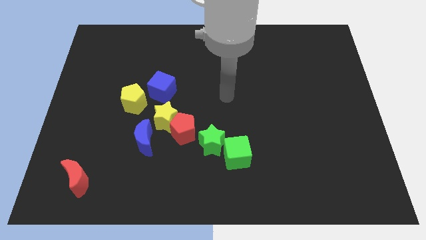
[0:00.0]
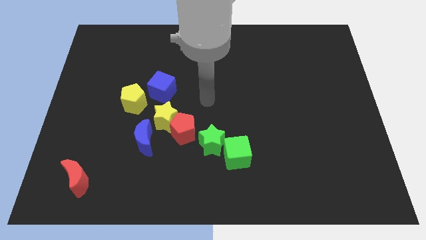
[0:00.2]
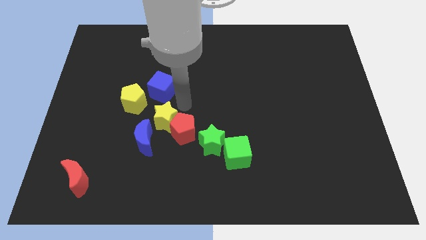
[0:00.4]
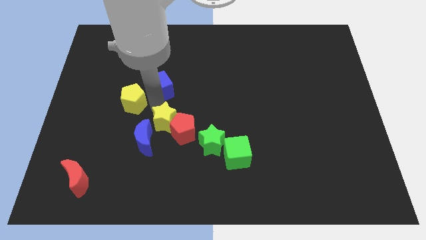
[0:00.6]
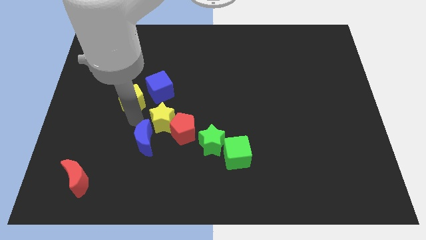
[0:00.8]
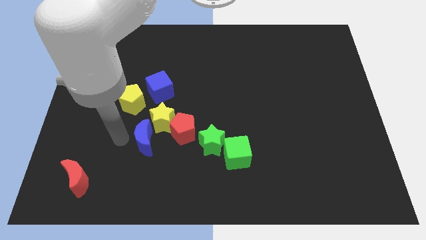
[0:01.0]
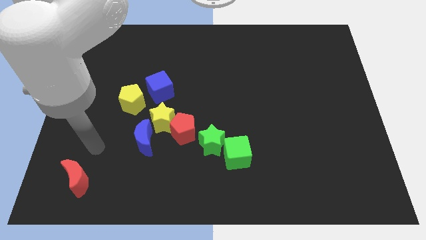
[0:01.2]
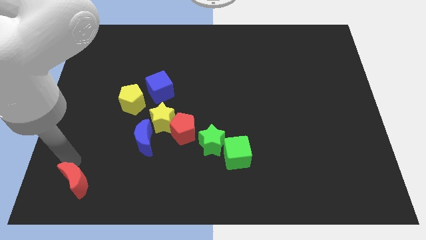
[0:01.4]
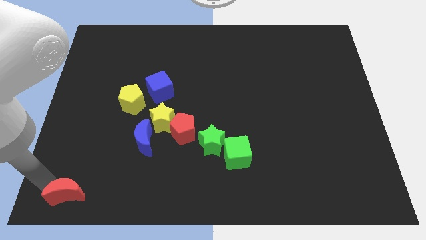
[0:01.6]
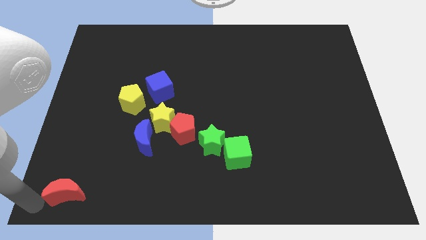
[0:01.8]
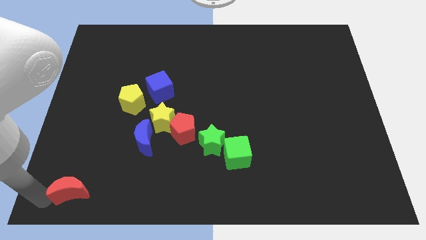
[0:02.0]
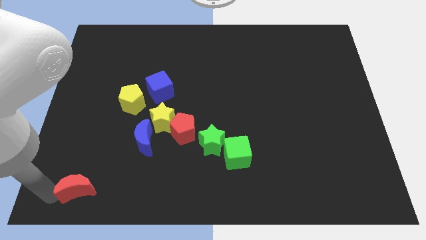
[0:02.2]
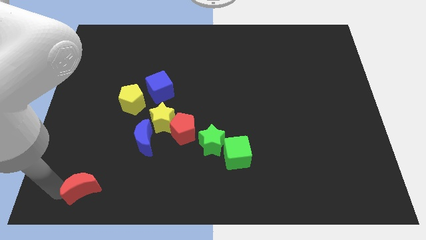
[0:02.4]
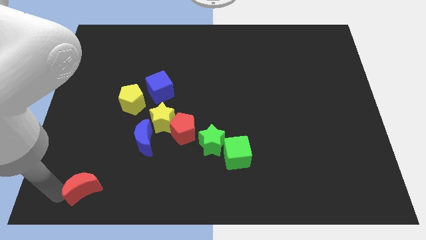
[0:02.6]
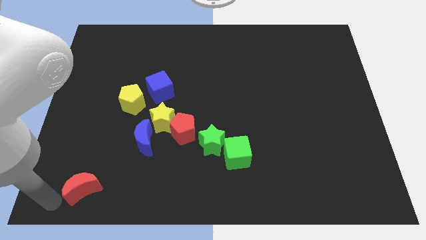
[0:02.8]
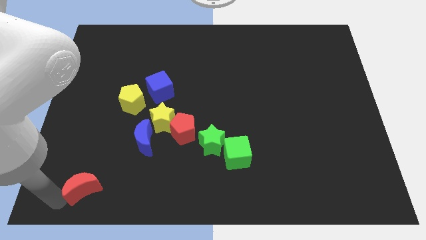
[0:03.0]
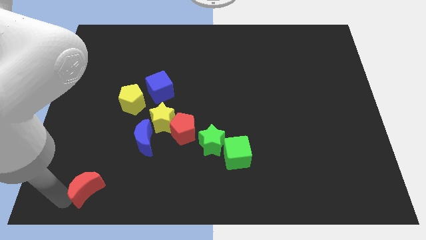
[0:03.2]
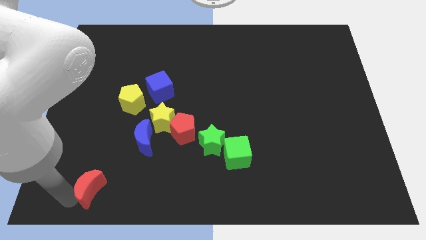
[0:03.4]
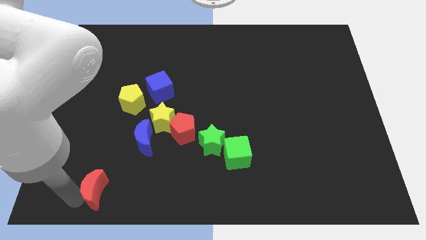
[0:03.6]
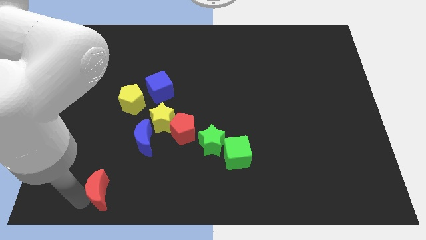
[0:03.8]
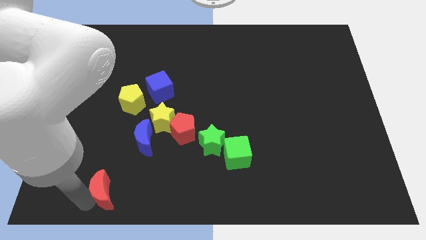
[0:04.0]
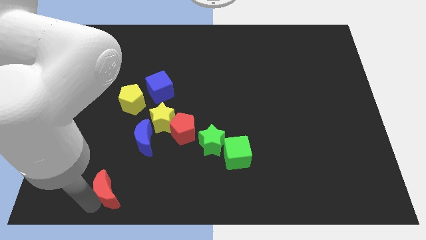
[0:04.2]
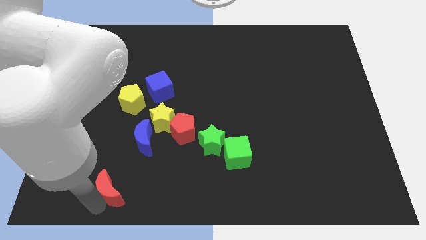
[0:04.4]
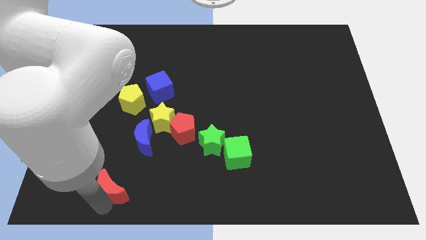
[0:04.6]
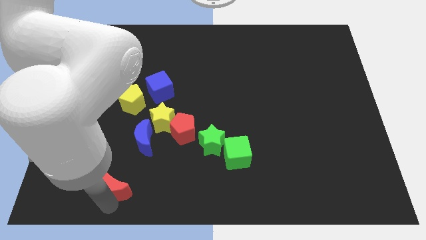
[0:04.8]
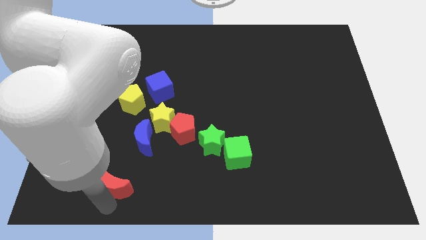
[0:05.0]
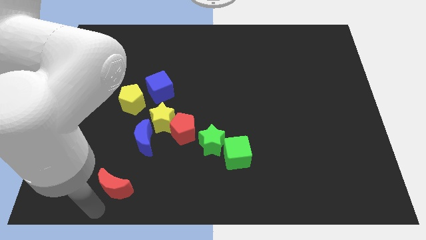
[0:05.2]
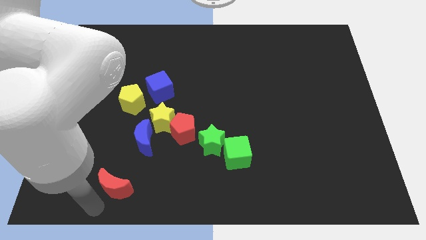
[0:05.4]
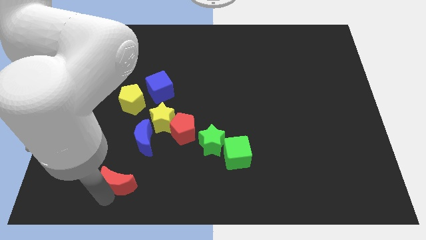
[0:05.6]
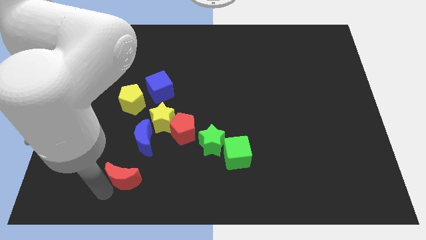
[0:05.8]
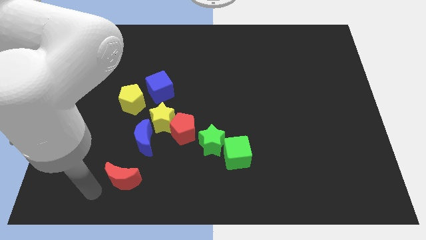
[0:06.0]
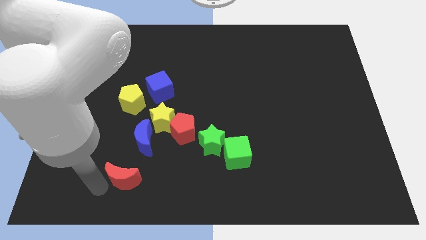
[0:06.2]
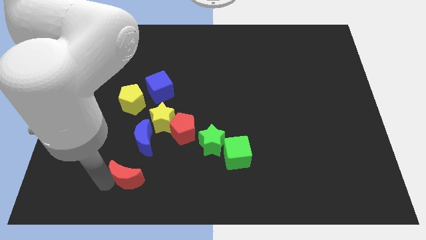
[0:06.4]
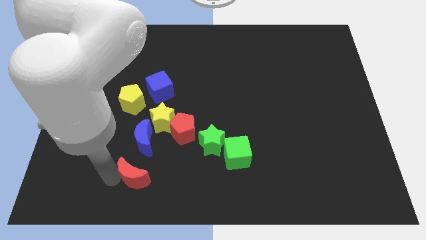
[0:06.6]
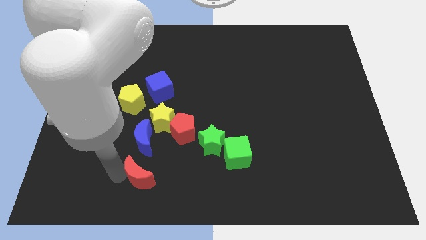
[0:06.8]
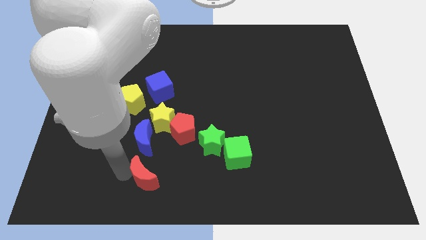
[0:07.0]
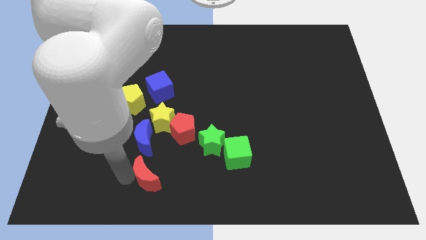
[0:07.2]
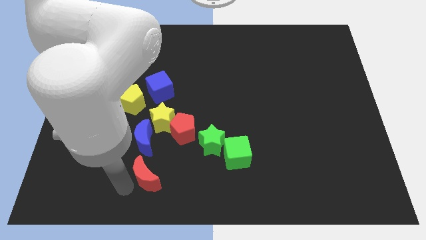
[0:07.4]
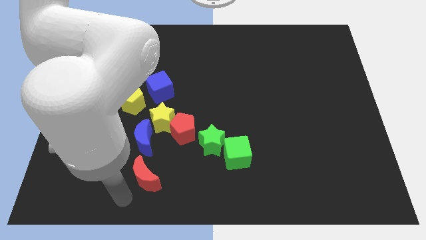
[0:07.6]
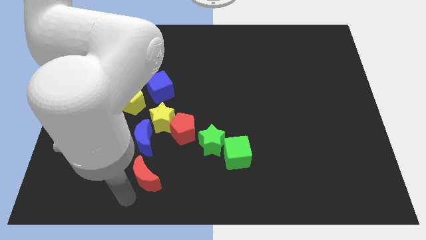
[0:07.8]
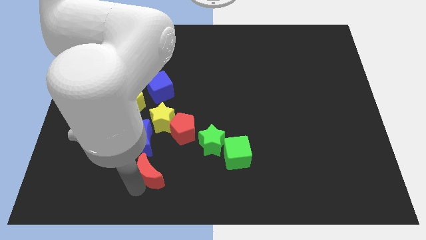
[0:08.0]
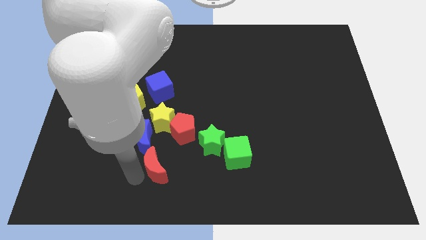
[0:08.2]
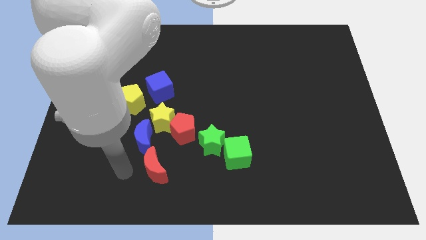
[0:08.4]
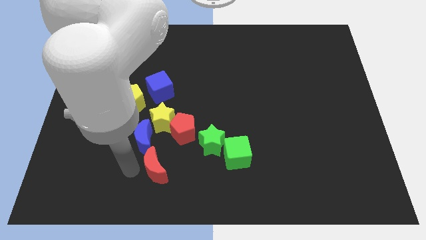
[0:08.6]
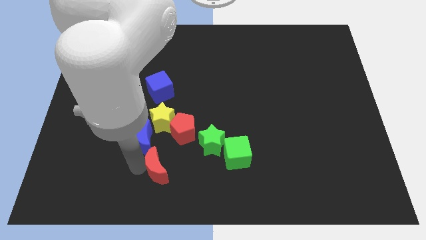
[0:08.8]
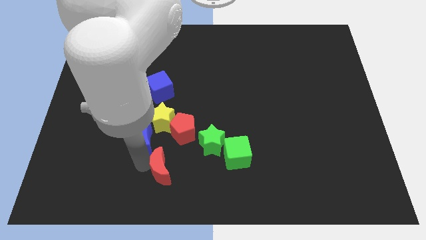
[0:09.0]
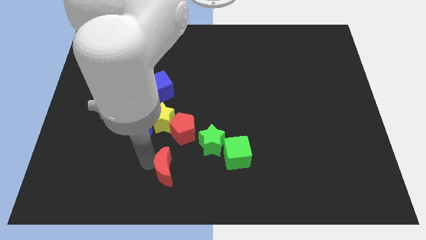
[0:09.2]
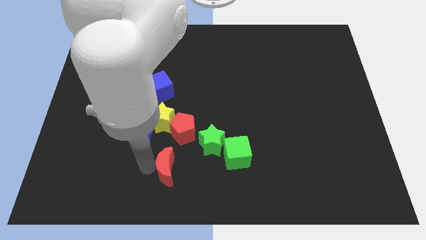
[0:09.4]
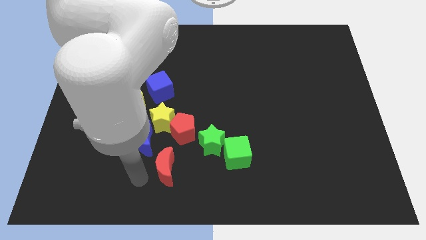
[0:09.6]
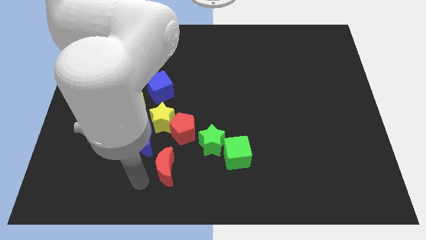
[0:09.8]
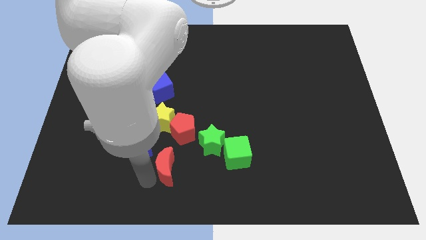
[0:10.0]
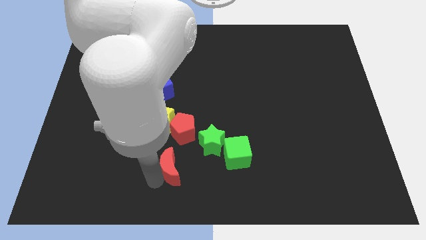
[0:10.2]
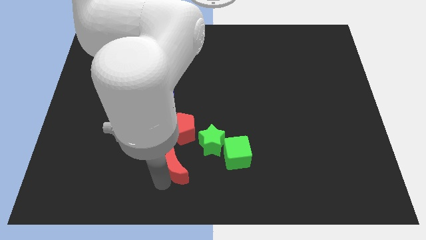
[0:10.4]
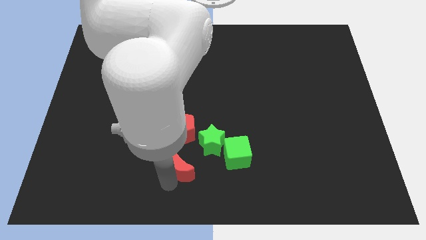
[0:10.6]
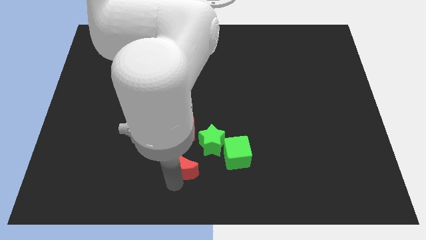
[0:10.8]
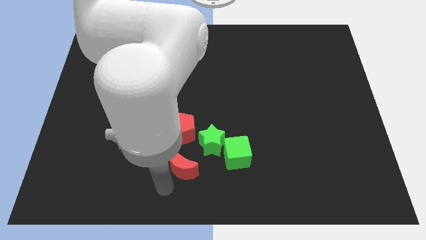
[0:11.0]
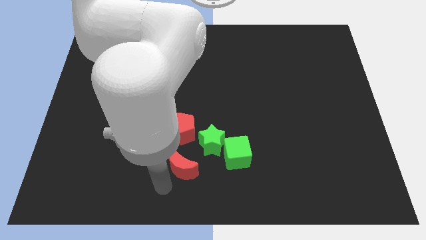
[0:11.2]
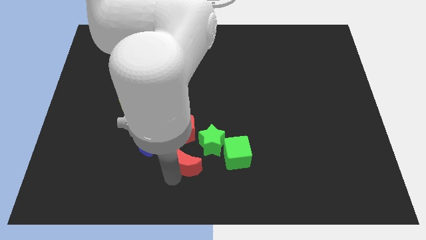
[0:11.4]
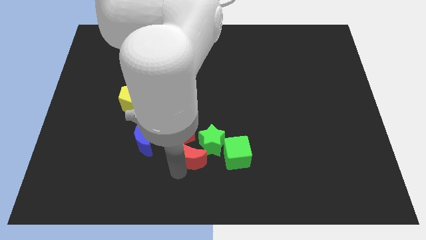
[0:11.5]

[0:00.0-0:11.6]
move the red moon close to the green star
